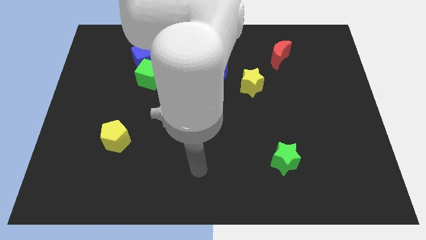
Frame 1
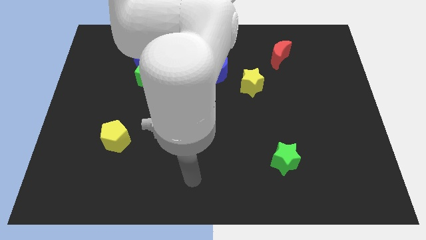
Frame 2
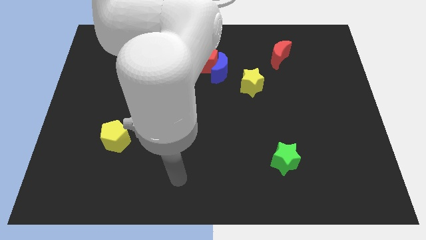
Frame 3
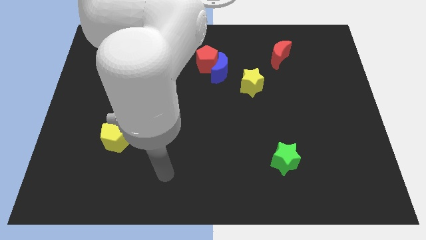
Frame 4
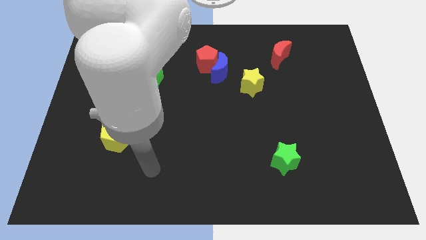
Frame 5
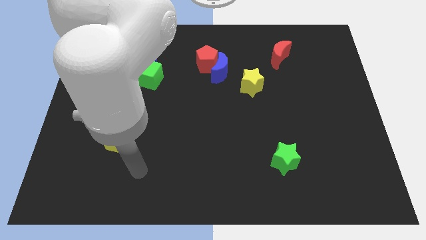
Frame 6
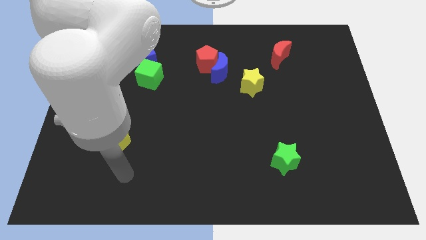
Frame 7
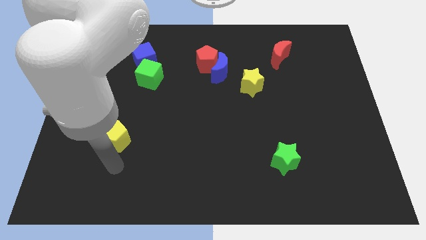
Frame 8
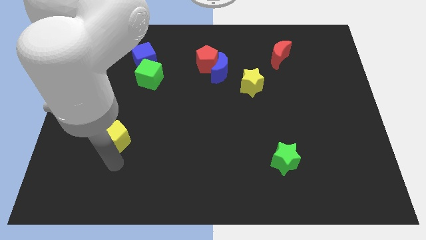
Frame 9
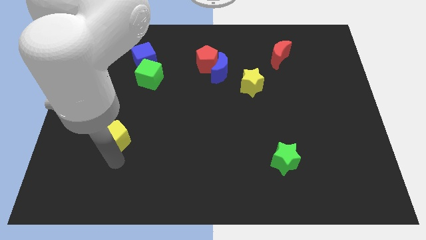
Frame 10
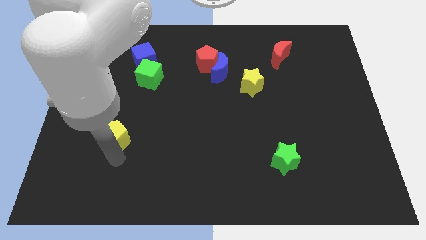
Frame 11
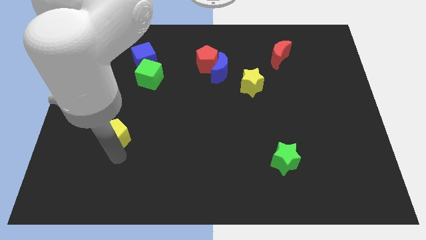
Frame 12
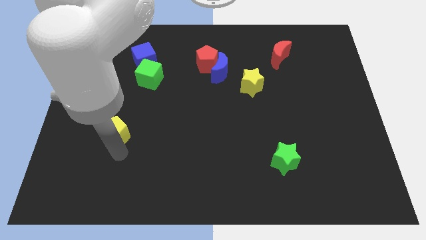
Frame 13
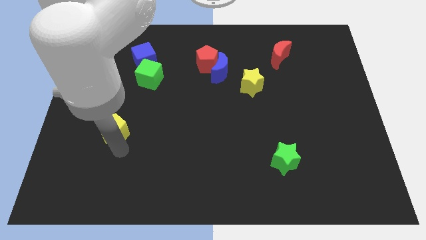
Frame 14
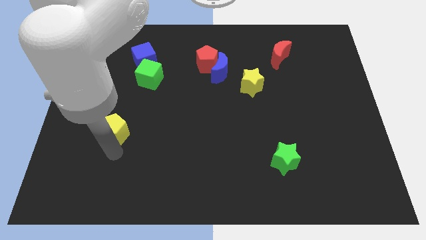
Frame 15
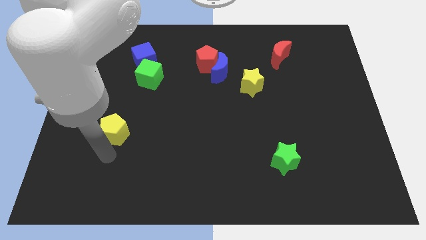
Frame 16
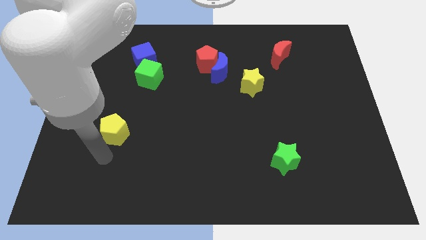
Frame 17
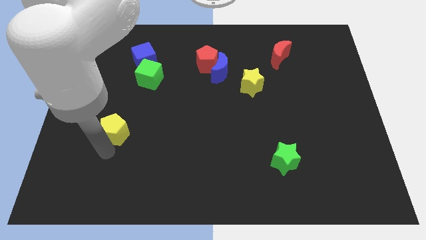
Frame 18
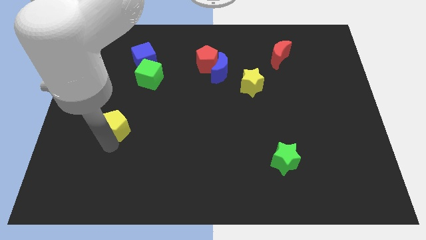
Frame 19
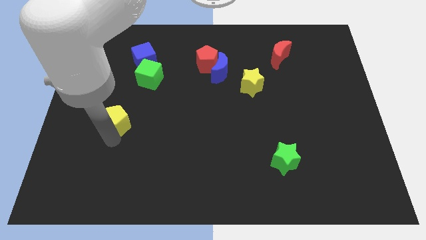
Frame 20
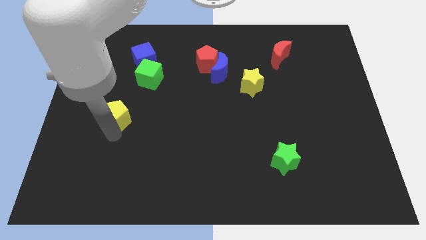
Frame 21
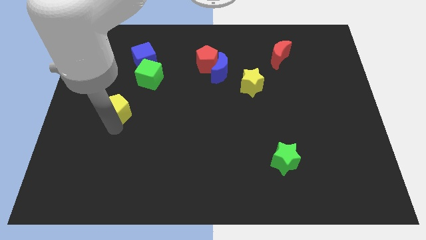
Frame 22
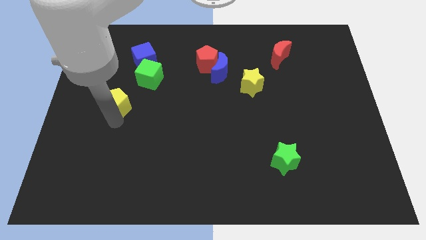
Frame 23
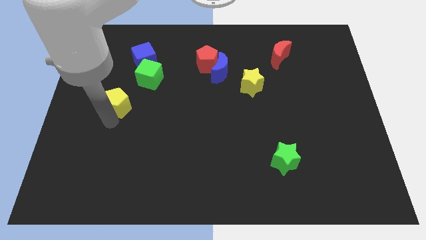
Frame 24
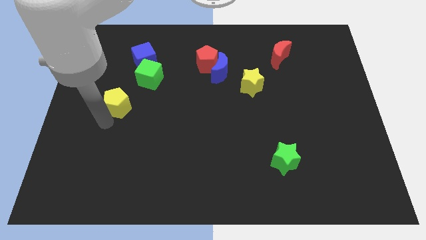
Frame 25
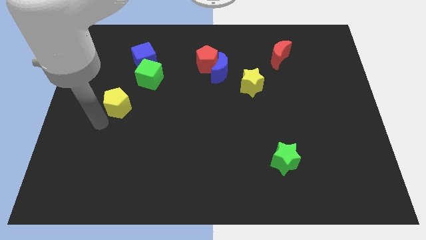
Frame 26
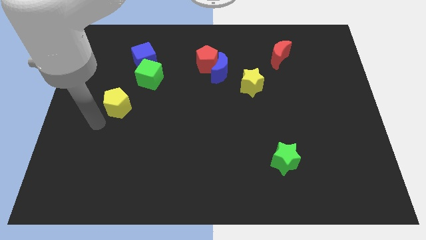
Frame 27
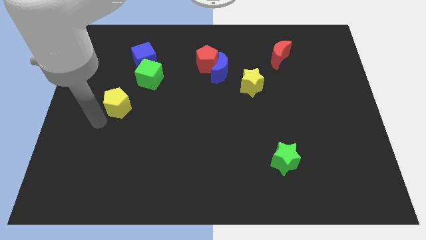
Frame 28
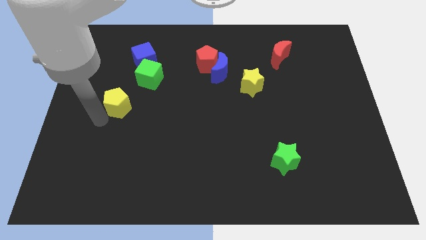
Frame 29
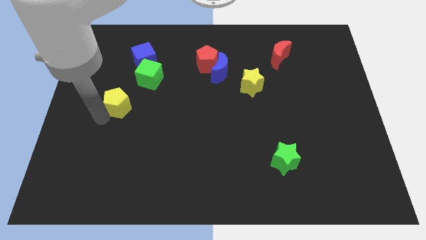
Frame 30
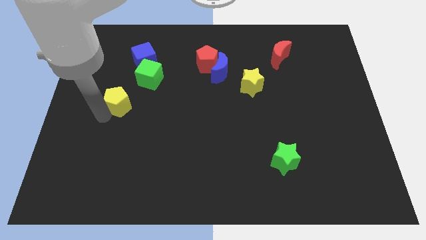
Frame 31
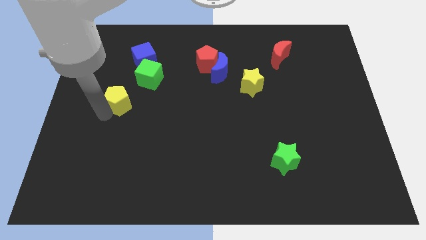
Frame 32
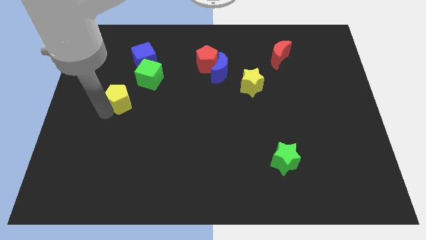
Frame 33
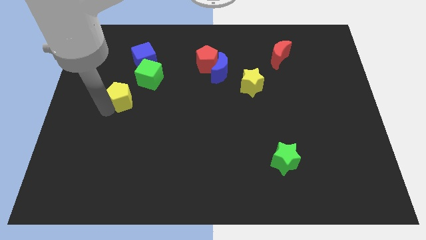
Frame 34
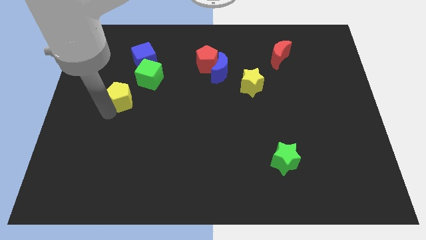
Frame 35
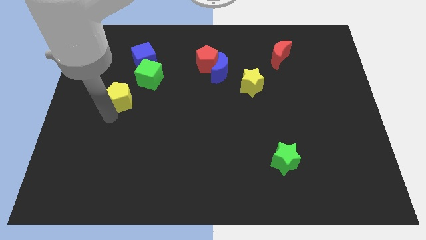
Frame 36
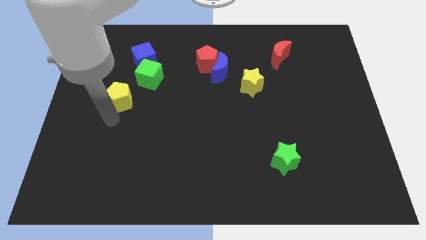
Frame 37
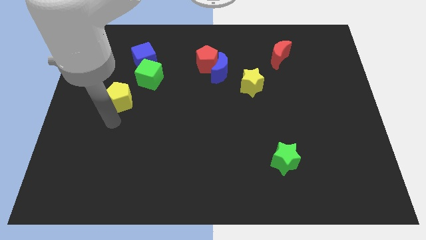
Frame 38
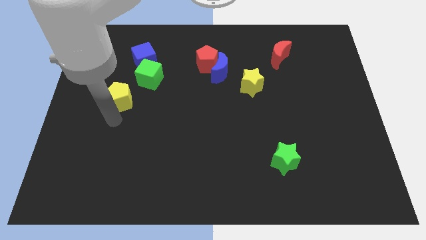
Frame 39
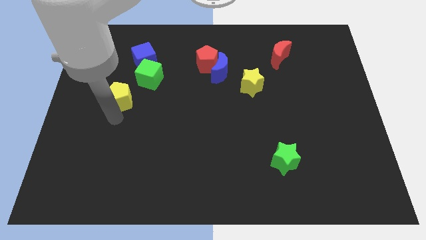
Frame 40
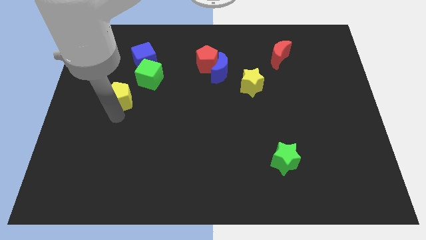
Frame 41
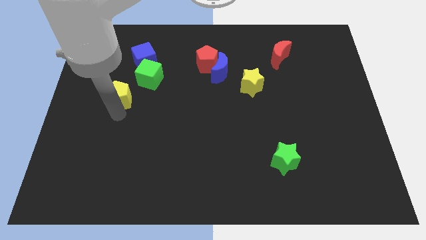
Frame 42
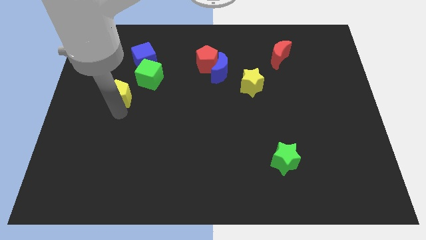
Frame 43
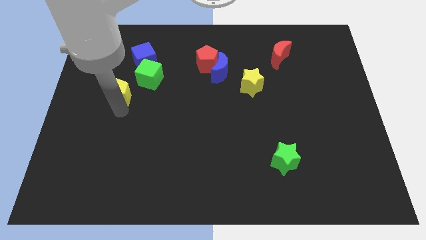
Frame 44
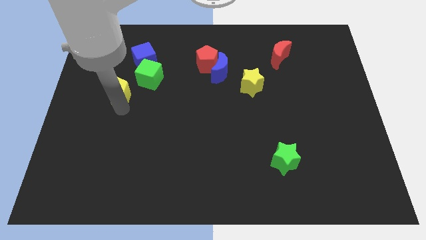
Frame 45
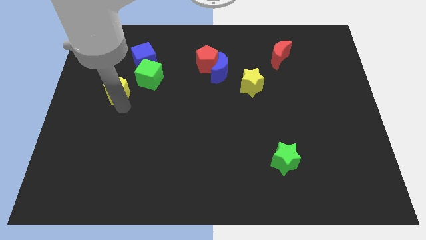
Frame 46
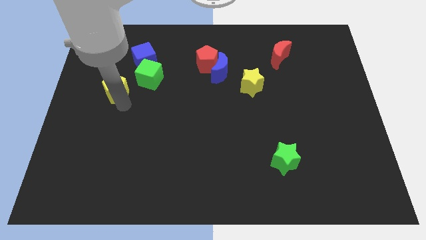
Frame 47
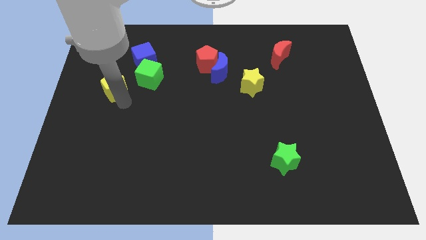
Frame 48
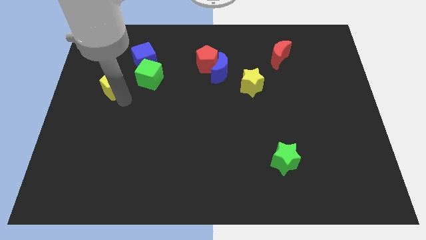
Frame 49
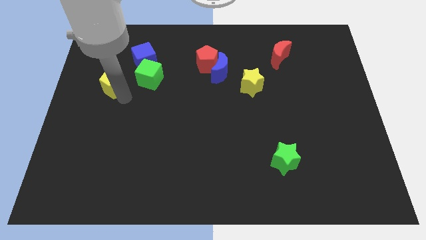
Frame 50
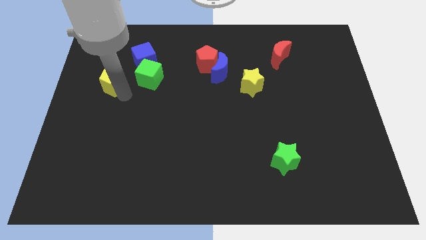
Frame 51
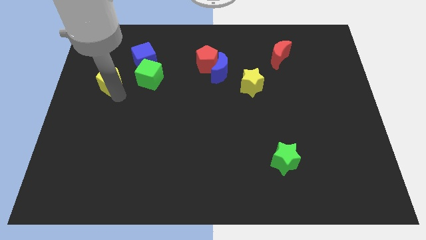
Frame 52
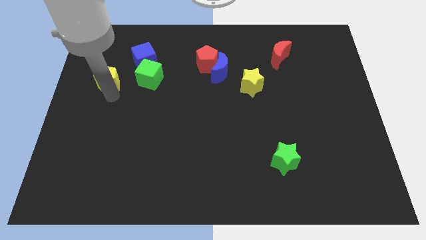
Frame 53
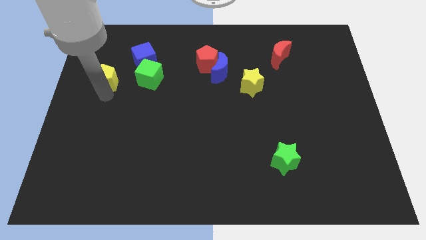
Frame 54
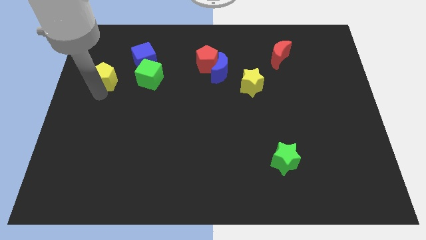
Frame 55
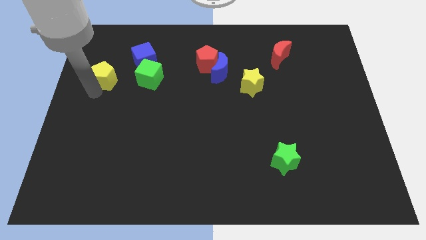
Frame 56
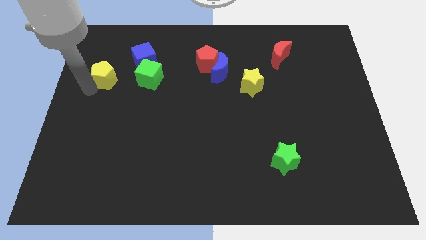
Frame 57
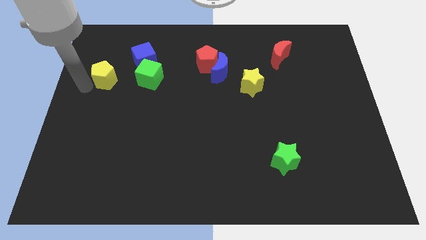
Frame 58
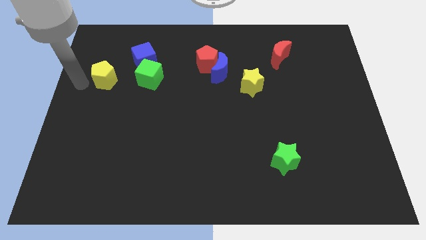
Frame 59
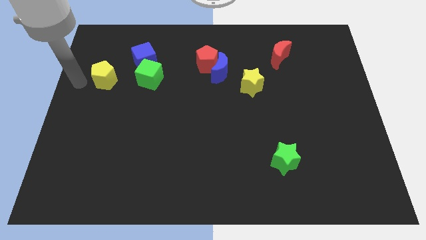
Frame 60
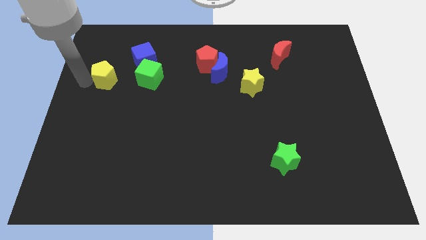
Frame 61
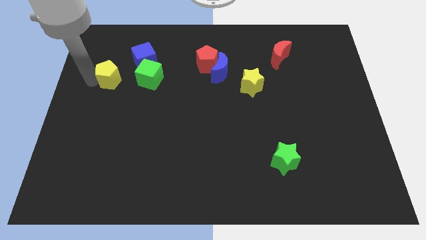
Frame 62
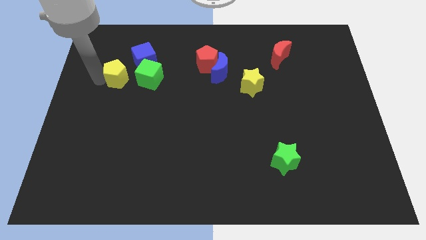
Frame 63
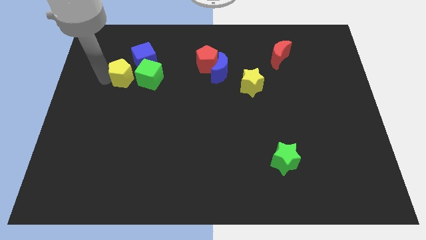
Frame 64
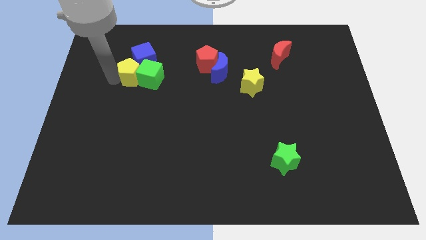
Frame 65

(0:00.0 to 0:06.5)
move the yellow pentagon to the blue cube
